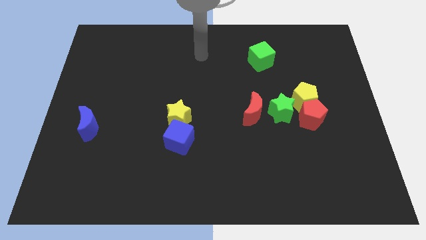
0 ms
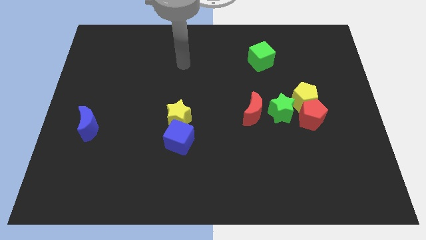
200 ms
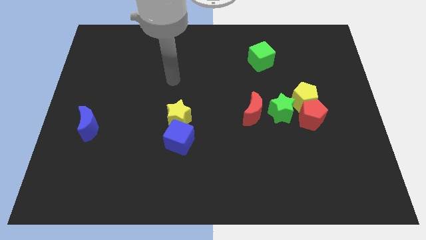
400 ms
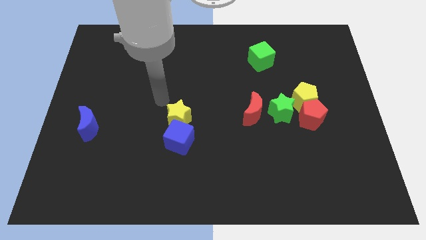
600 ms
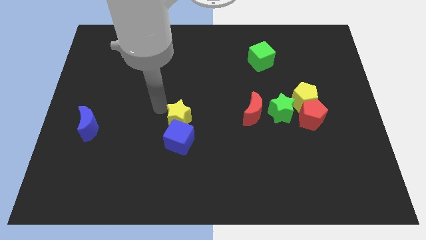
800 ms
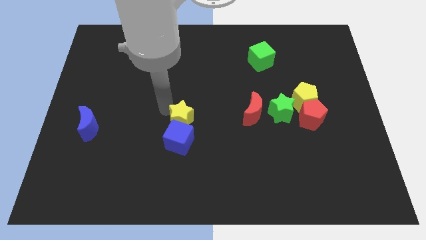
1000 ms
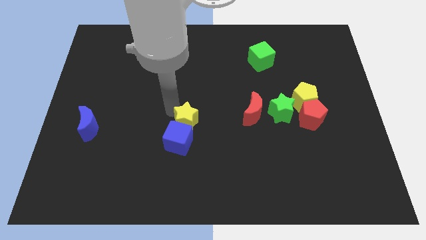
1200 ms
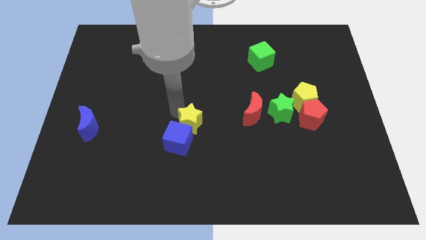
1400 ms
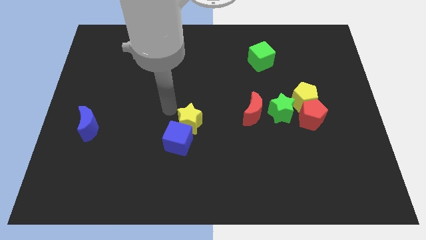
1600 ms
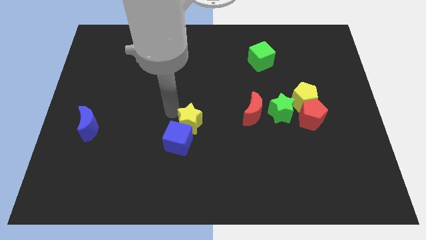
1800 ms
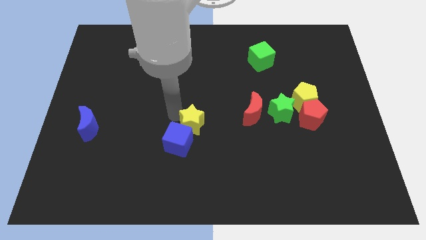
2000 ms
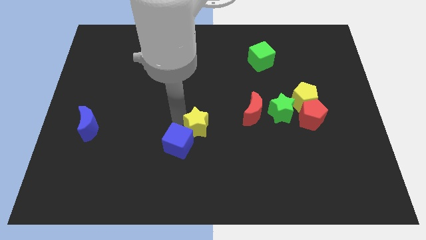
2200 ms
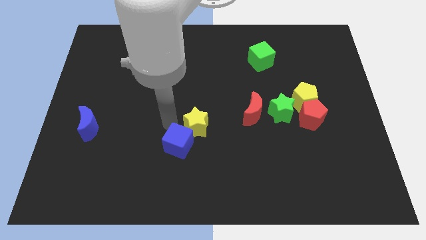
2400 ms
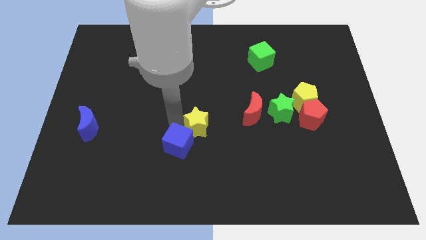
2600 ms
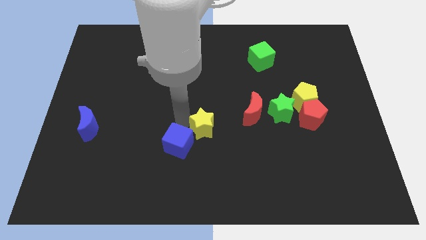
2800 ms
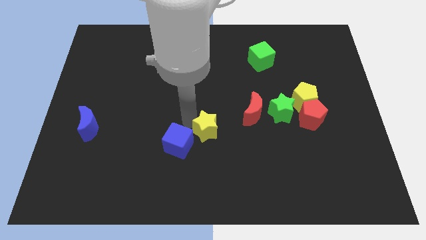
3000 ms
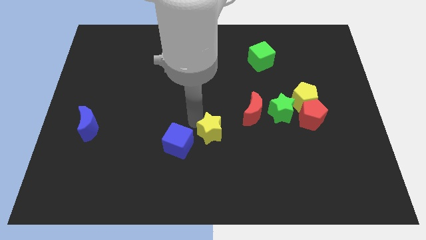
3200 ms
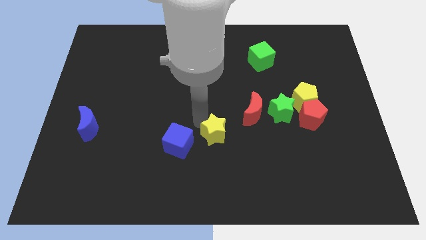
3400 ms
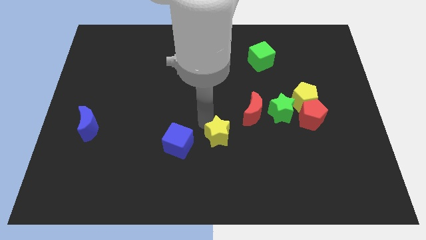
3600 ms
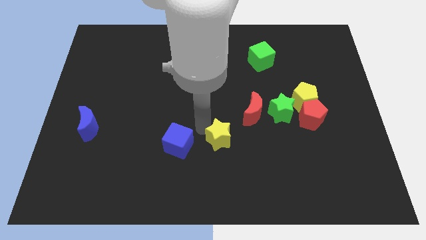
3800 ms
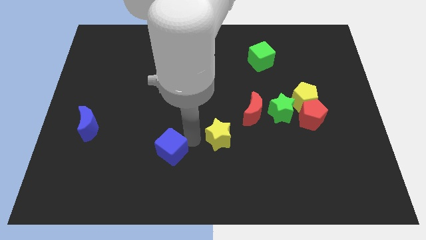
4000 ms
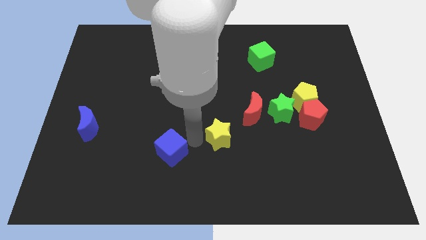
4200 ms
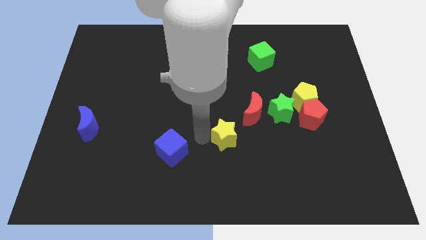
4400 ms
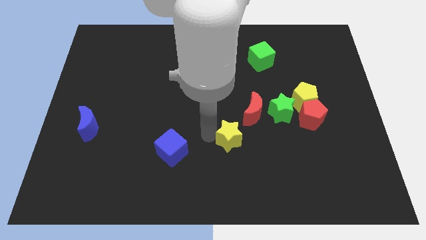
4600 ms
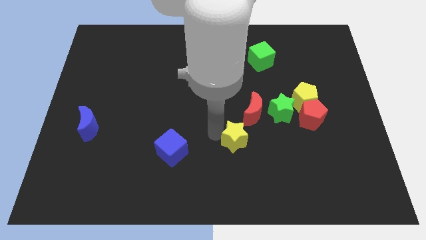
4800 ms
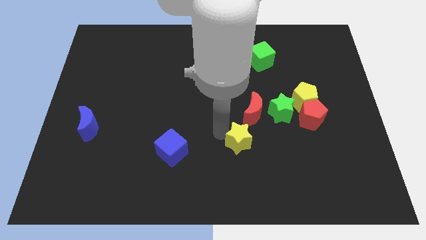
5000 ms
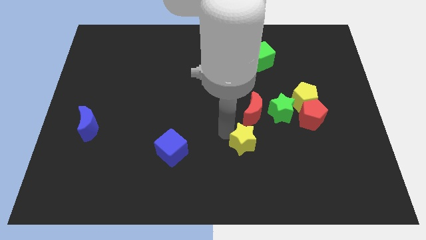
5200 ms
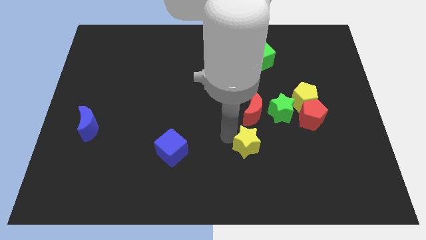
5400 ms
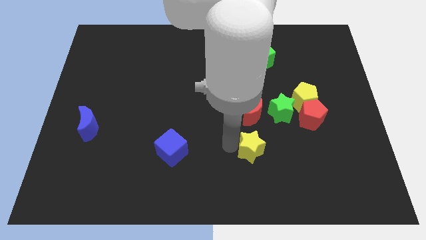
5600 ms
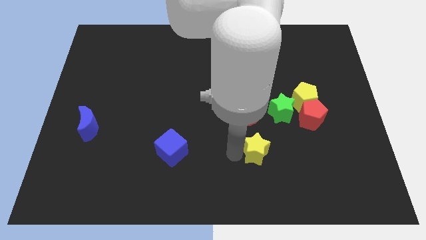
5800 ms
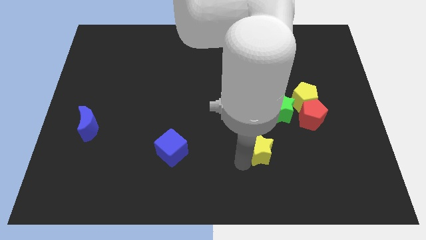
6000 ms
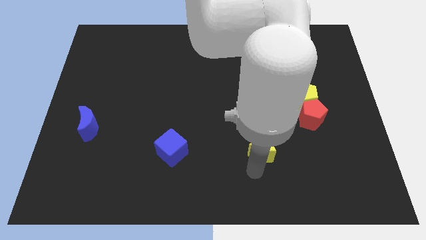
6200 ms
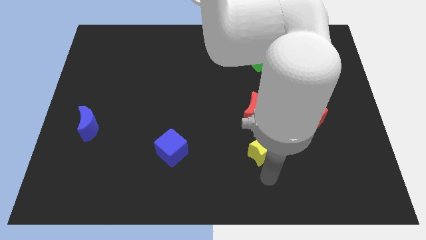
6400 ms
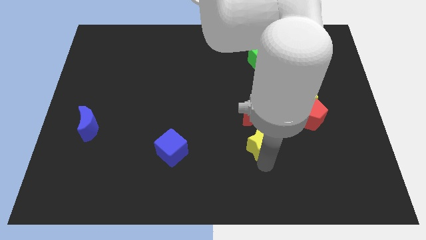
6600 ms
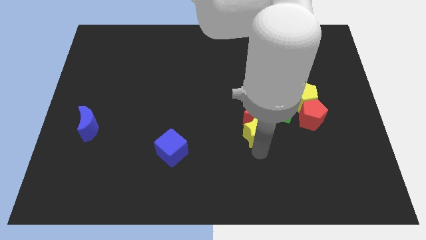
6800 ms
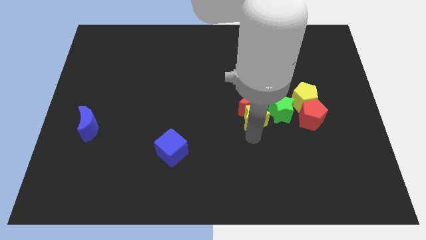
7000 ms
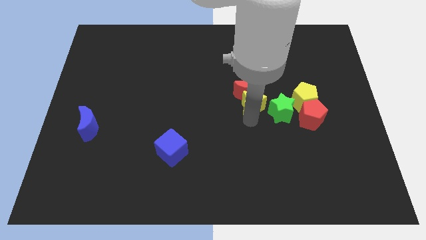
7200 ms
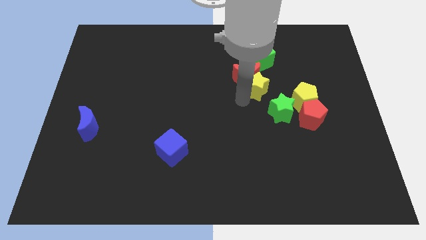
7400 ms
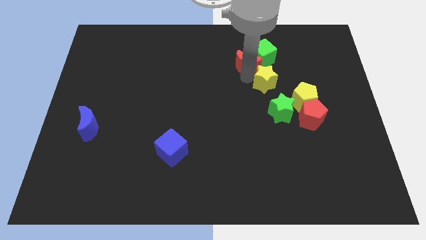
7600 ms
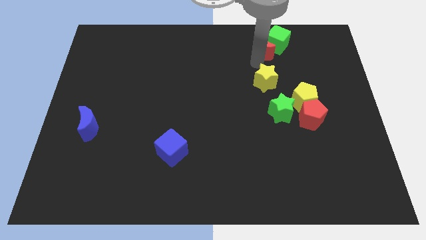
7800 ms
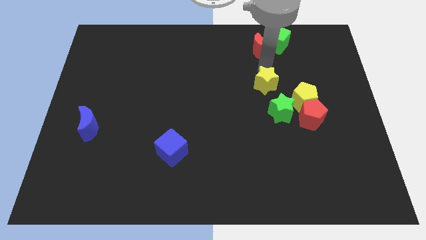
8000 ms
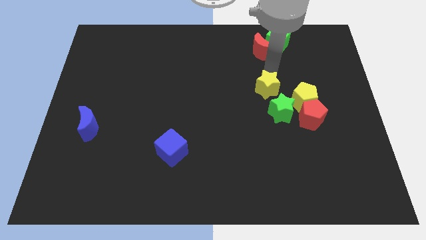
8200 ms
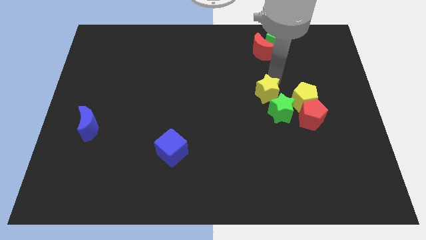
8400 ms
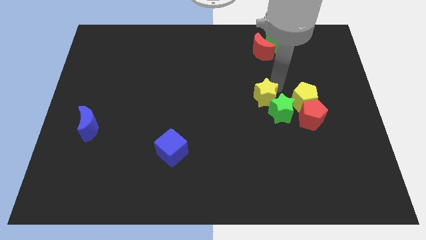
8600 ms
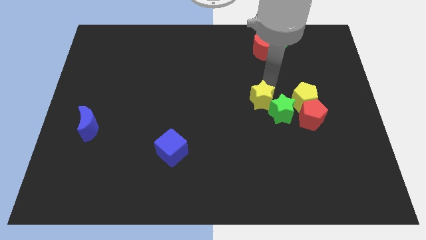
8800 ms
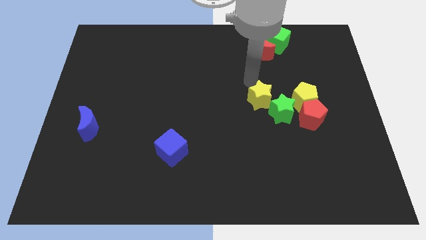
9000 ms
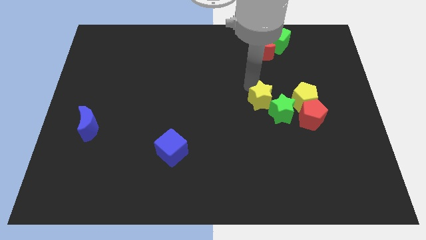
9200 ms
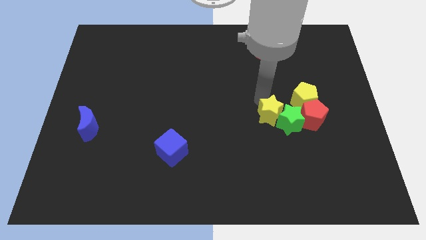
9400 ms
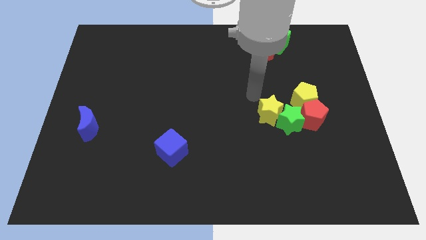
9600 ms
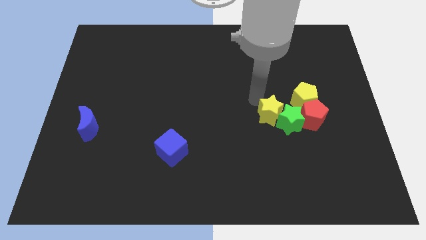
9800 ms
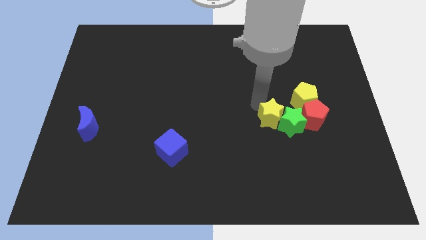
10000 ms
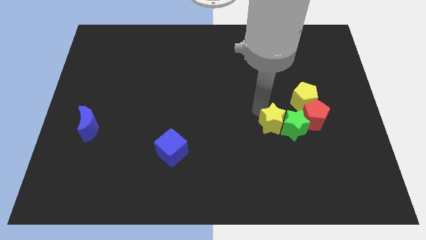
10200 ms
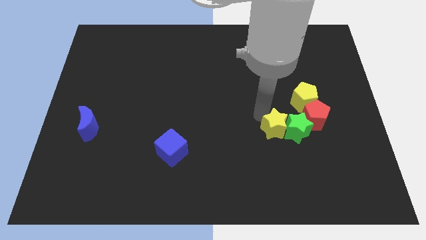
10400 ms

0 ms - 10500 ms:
push the yellow star to the bottom left of the red pentagon

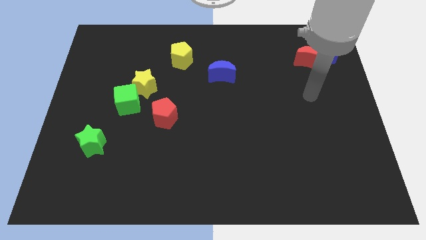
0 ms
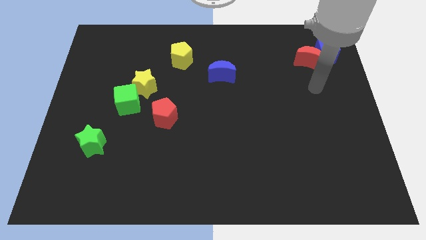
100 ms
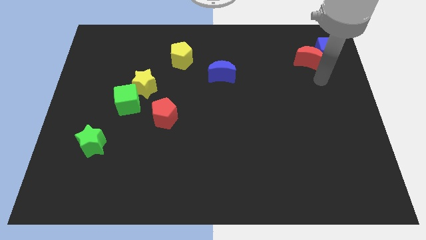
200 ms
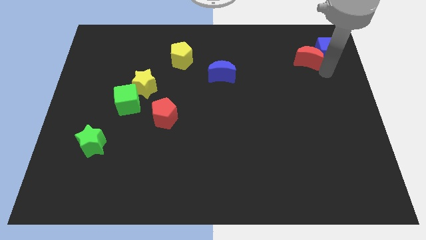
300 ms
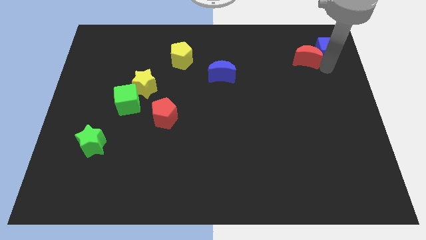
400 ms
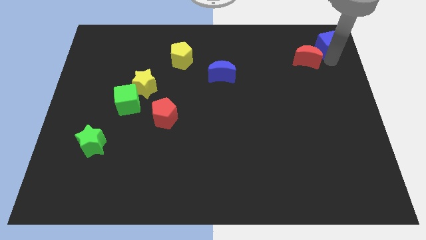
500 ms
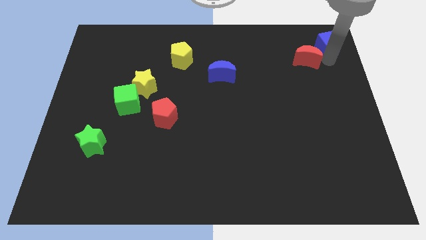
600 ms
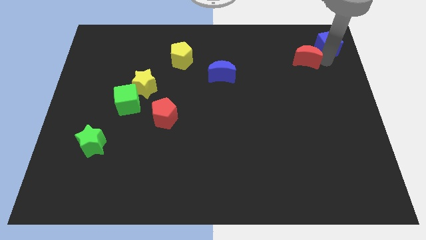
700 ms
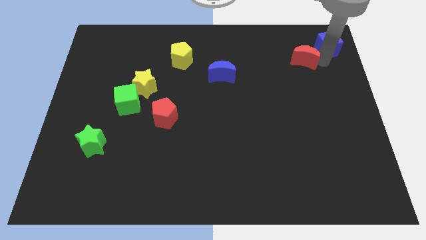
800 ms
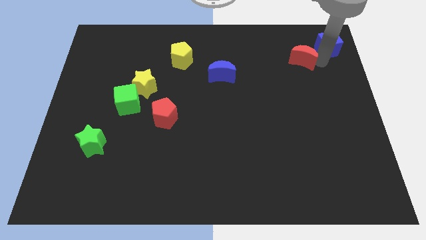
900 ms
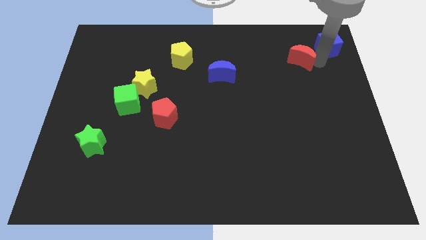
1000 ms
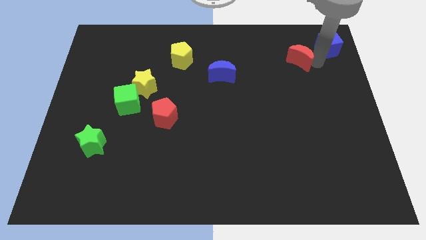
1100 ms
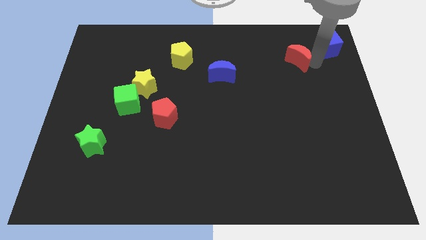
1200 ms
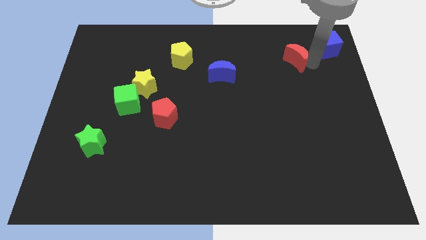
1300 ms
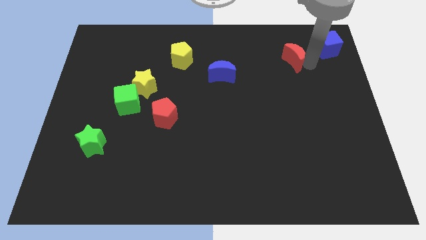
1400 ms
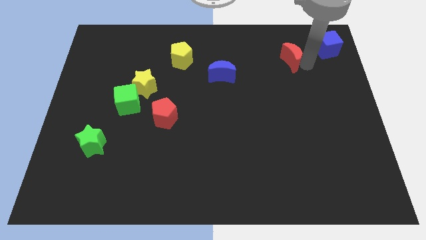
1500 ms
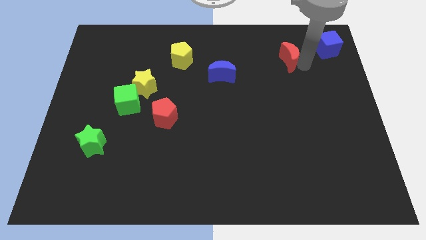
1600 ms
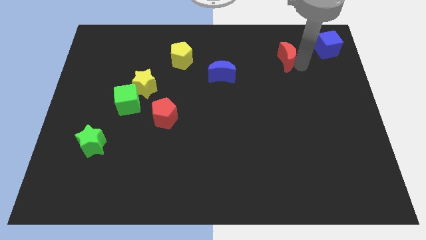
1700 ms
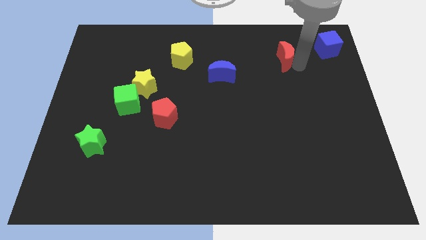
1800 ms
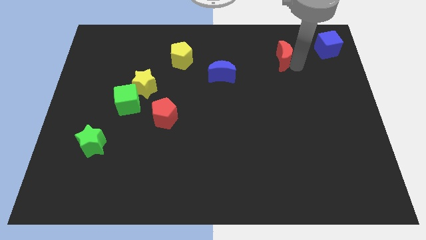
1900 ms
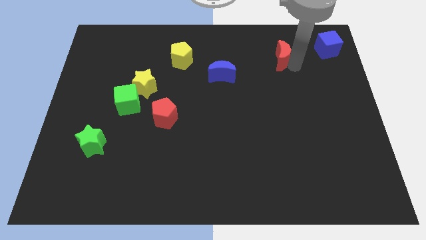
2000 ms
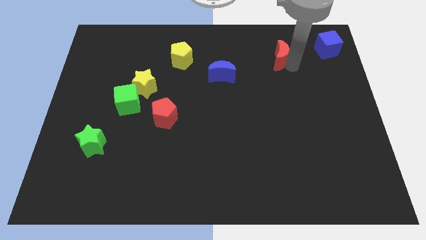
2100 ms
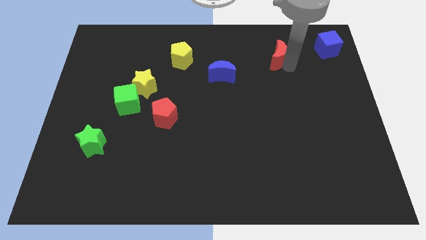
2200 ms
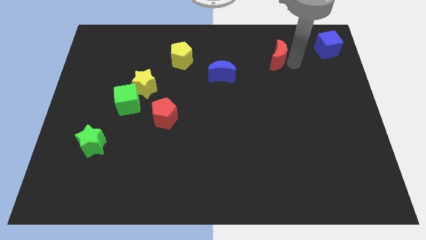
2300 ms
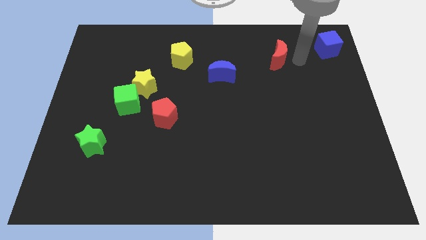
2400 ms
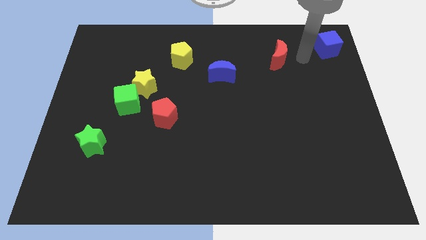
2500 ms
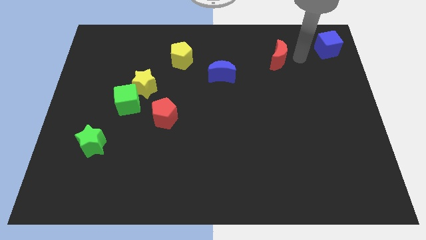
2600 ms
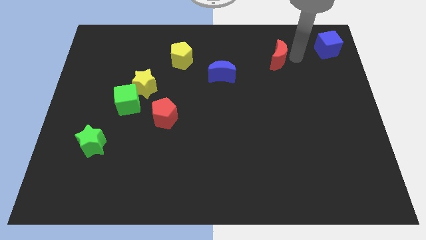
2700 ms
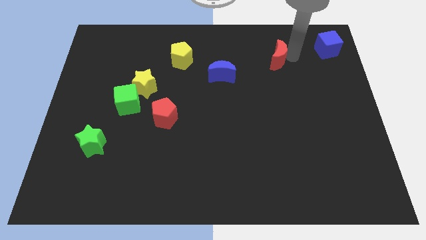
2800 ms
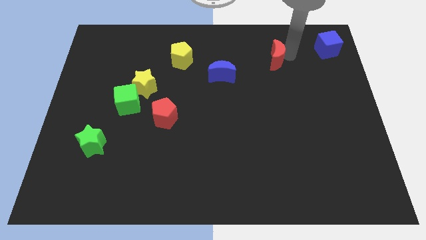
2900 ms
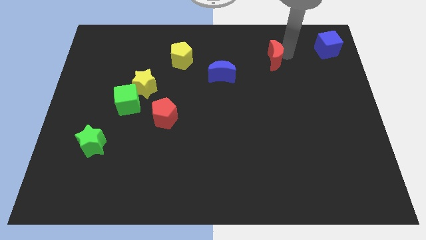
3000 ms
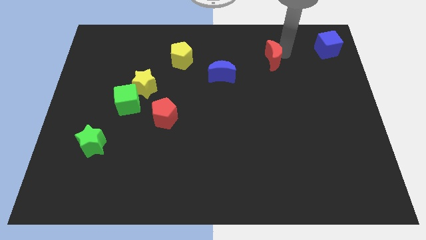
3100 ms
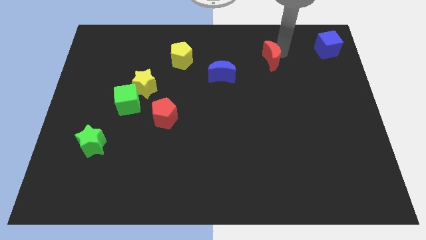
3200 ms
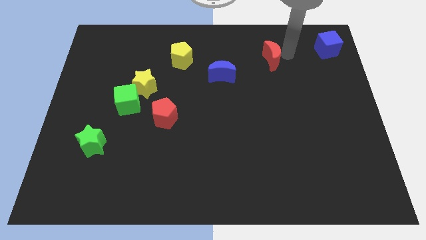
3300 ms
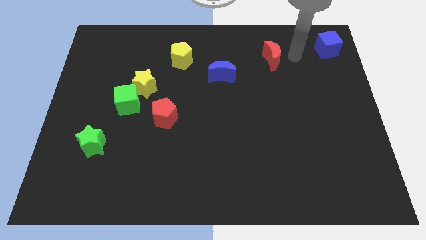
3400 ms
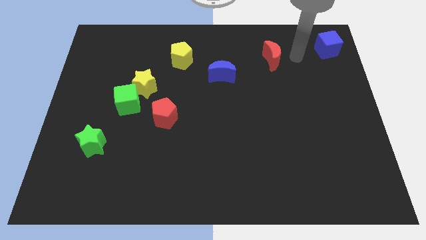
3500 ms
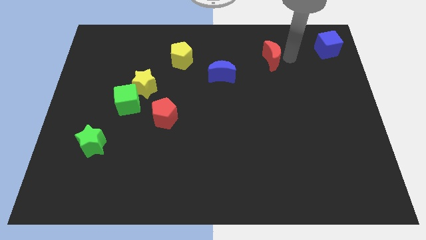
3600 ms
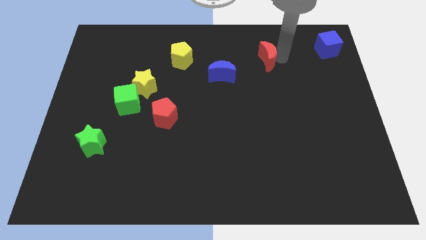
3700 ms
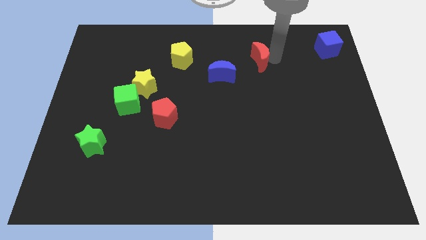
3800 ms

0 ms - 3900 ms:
slide the red moon to the top right side of the blue moon
